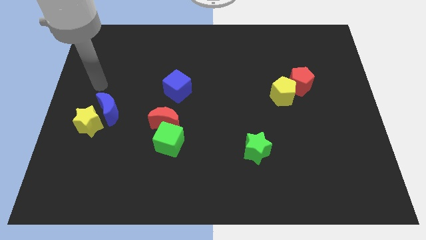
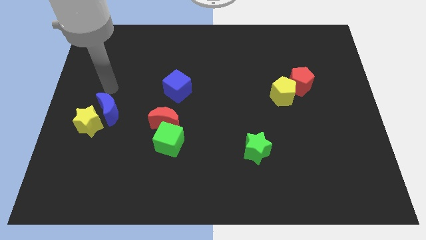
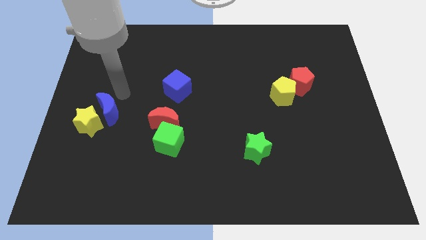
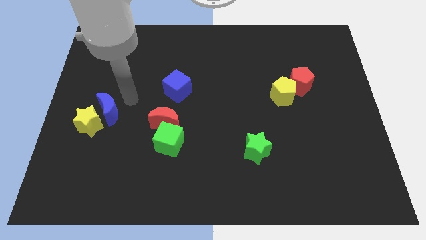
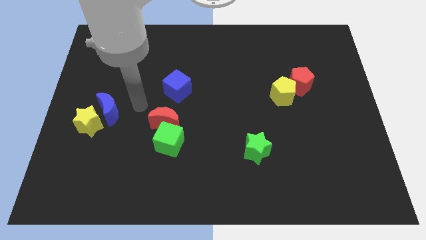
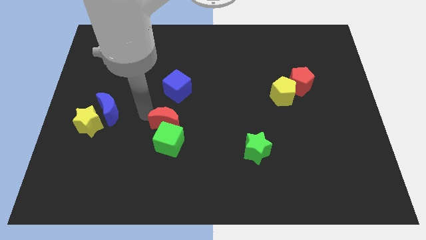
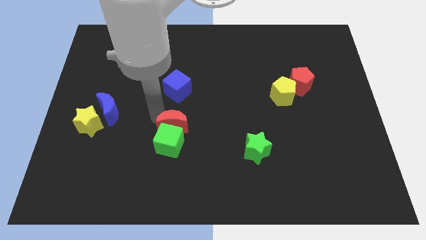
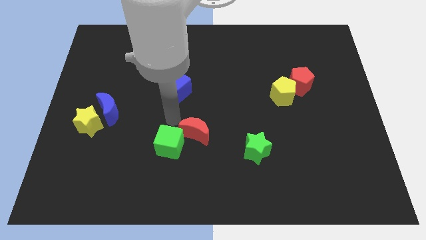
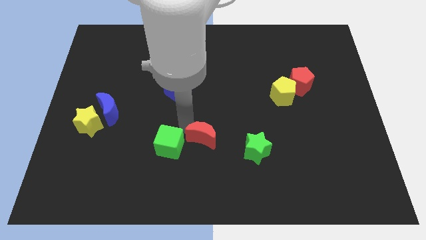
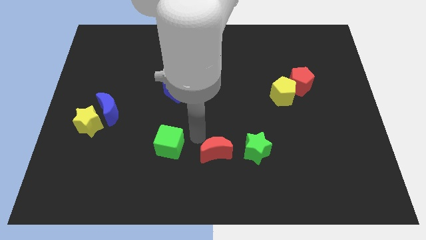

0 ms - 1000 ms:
move the green cube away from the red moon

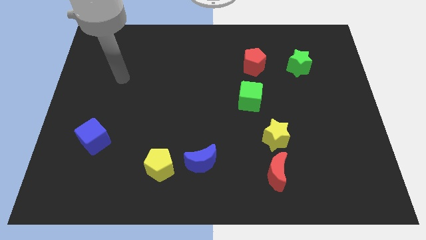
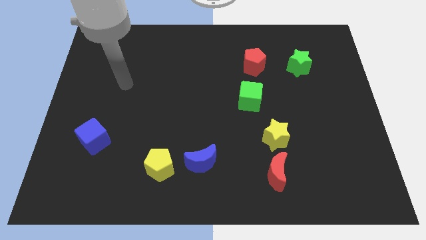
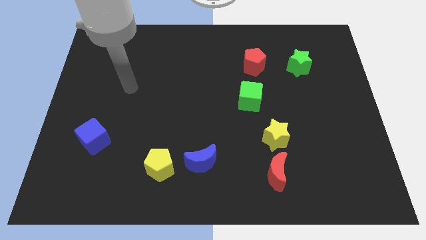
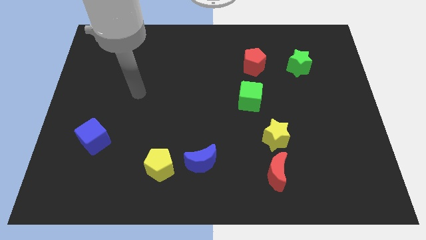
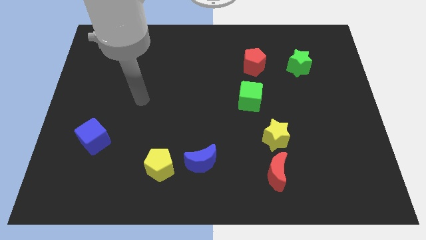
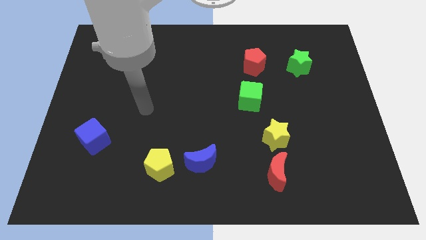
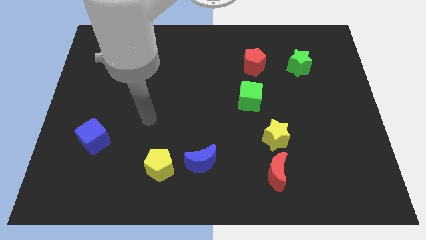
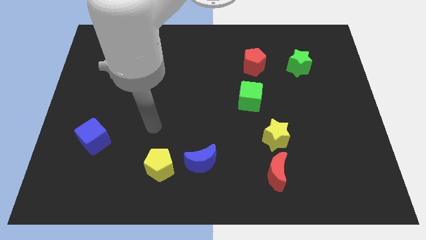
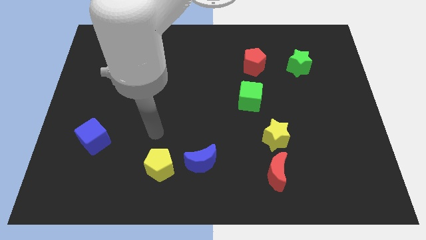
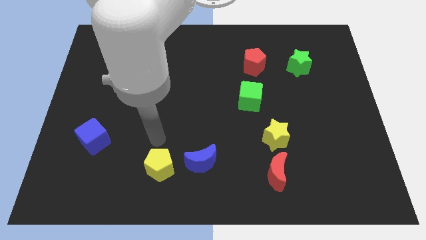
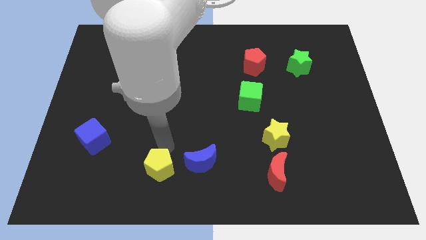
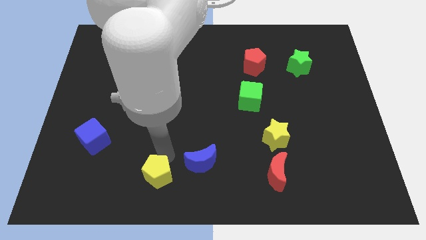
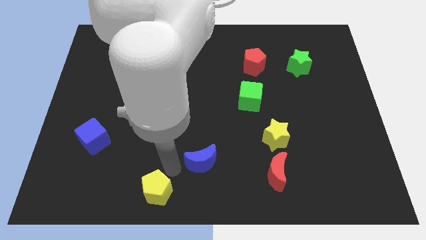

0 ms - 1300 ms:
separate the blue moon from the yellow pentagon

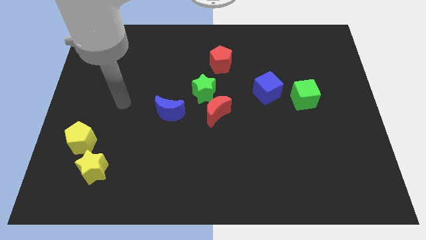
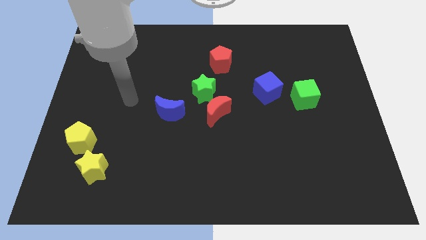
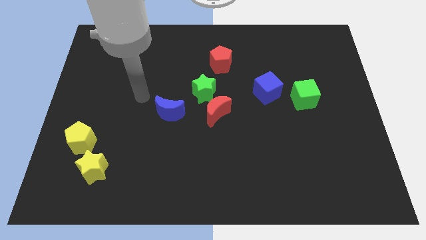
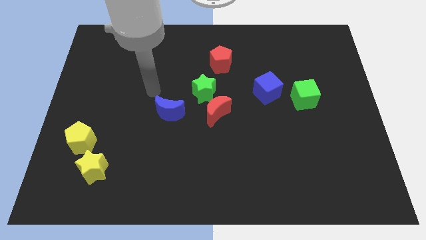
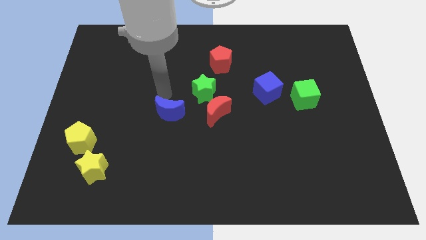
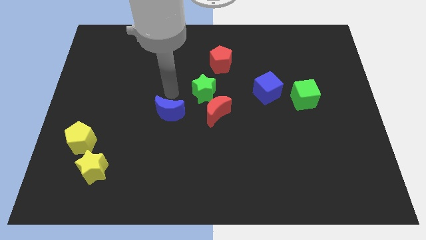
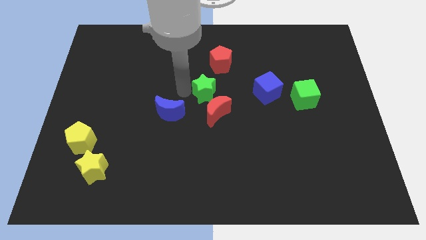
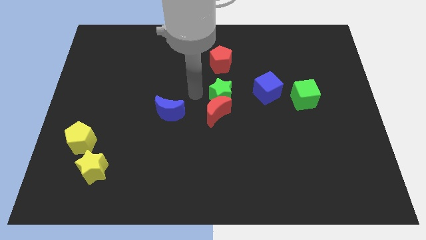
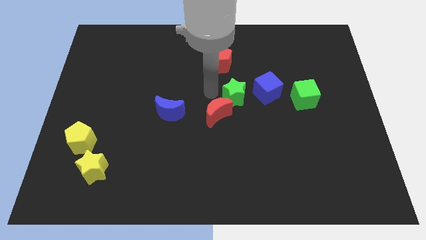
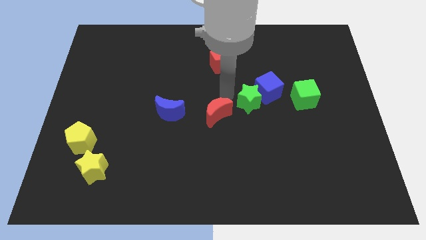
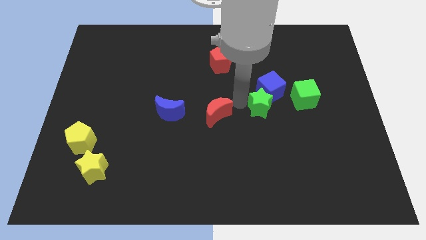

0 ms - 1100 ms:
separate the red moon from the green star

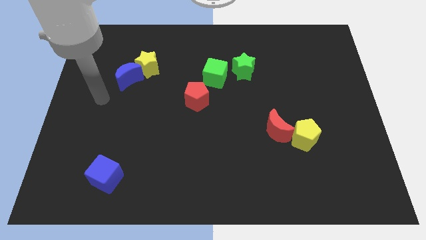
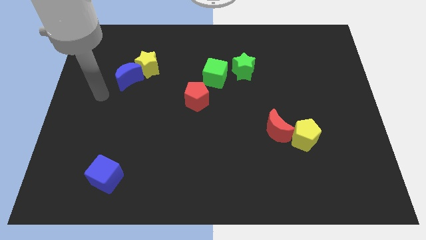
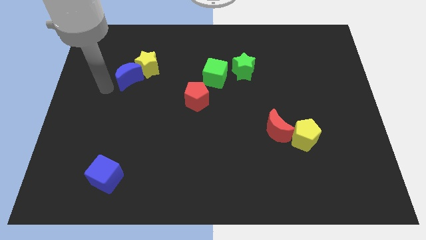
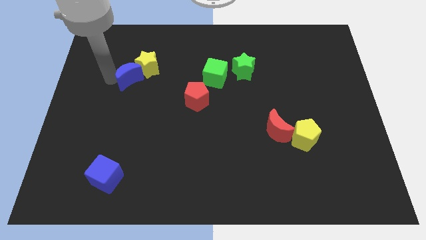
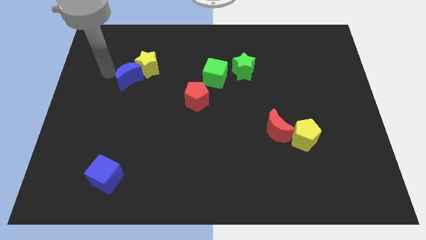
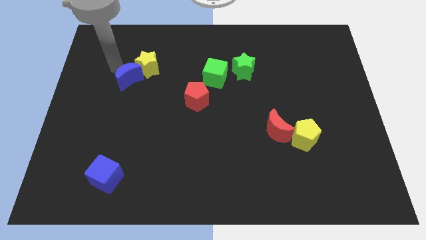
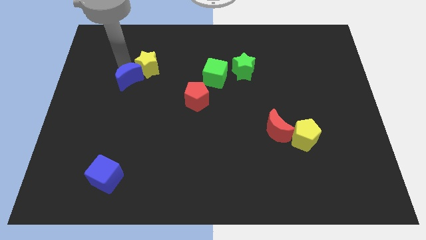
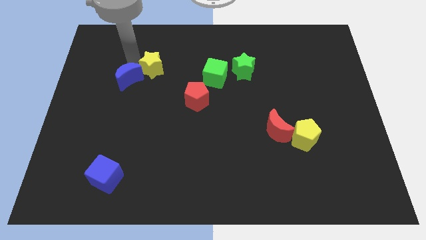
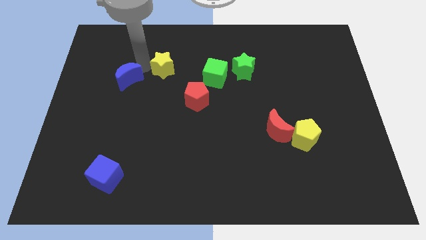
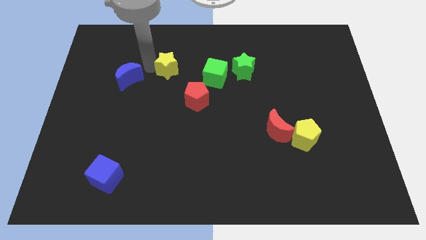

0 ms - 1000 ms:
pull the blue moon apart from the yellow star

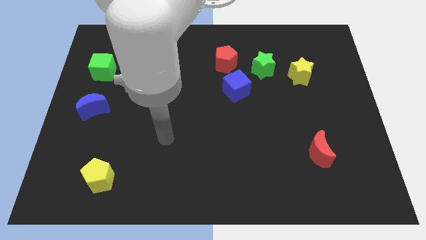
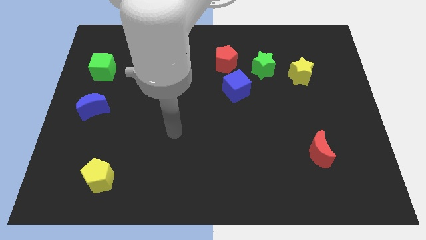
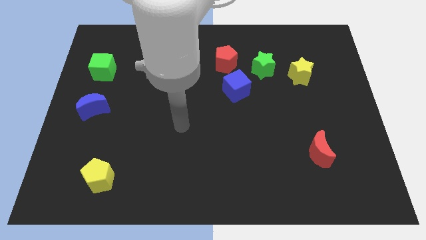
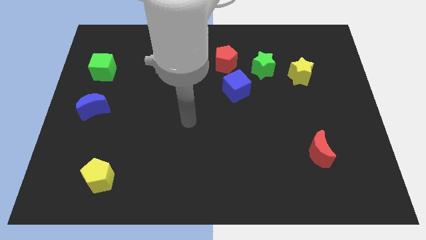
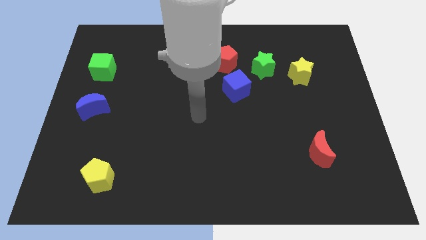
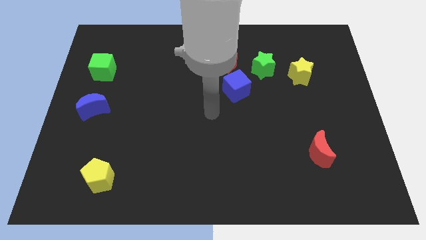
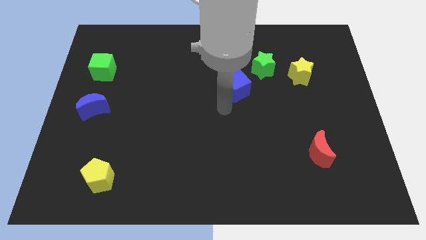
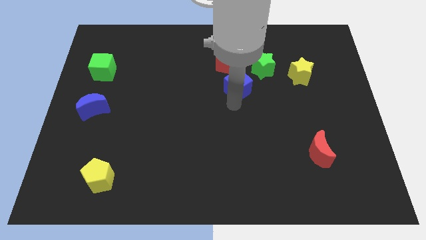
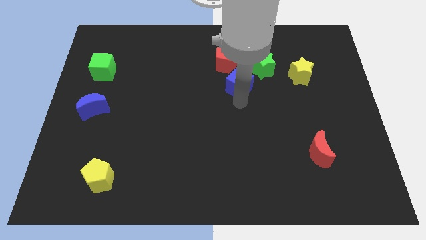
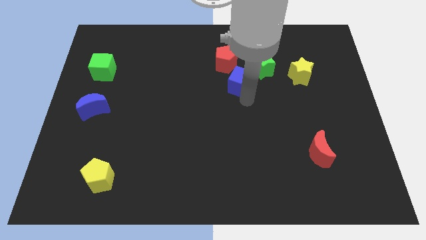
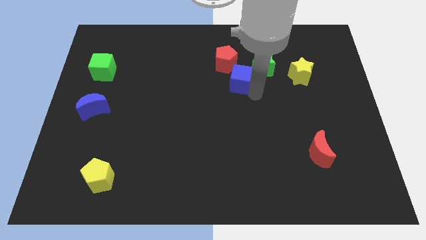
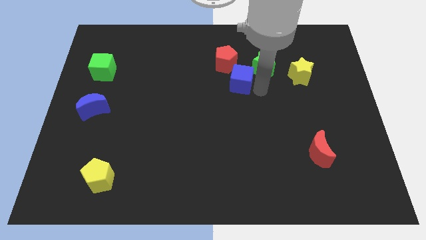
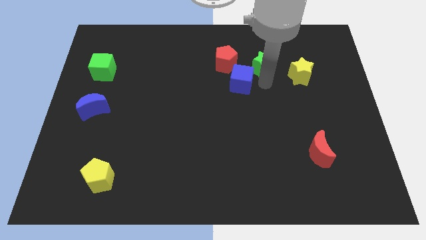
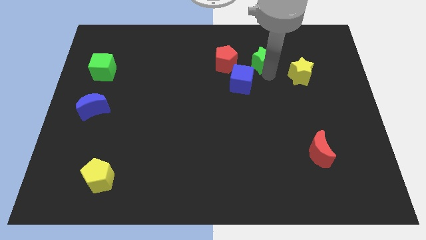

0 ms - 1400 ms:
pull the yellow star apart from the green star

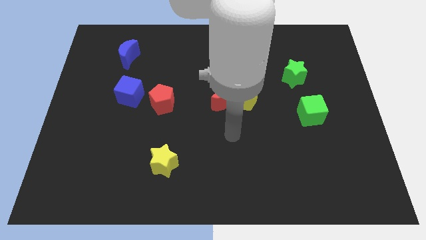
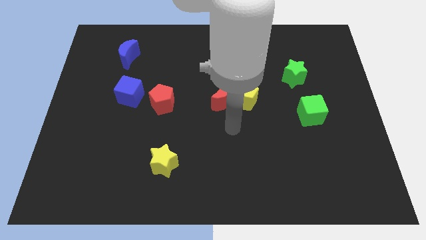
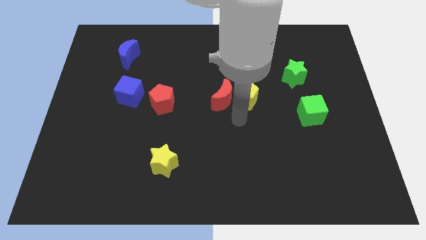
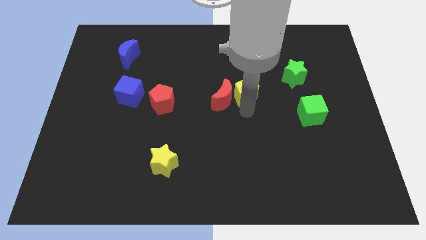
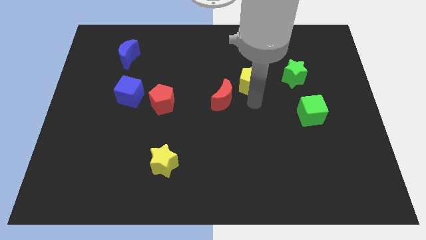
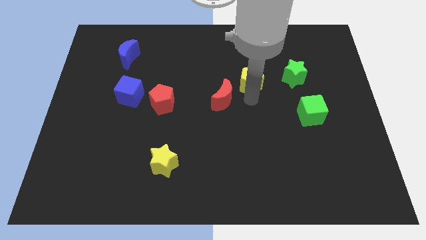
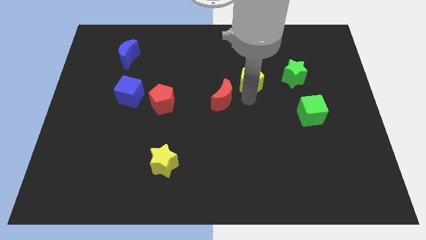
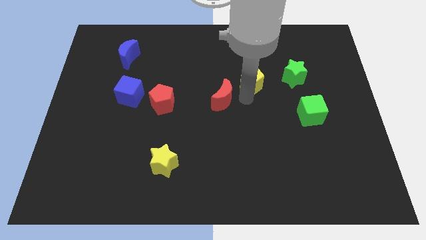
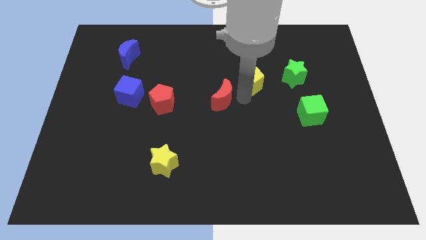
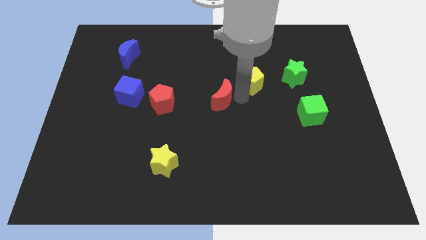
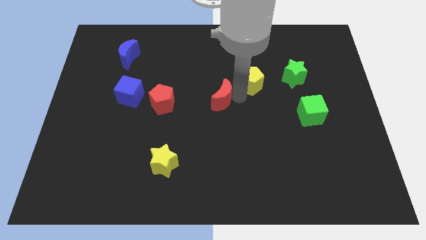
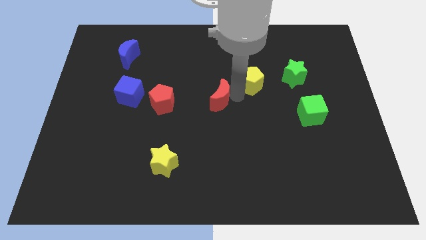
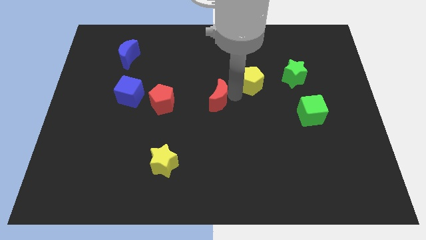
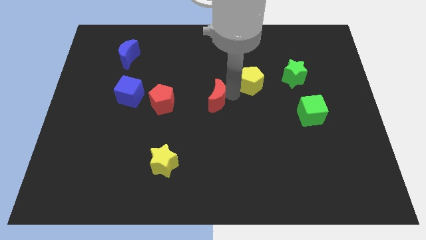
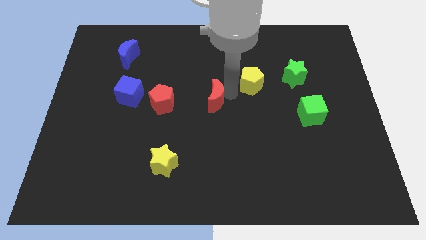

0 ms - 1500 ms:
move the red moon away from the yellow pentagon

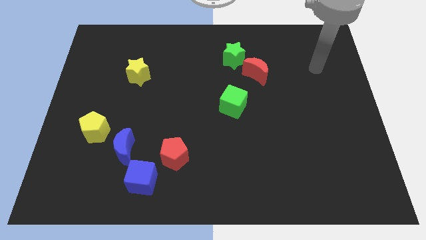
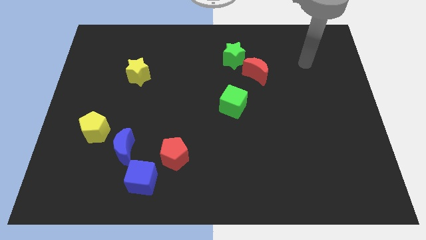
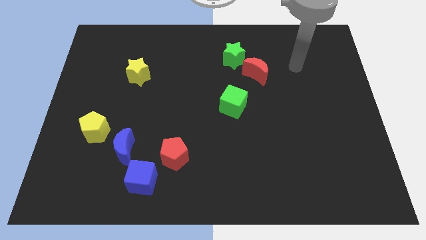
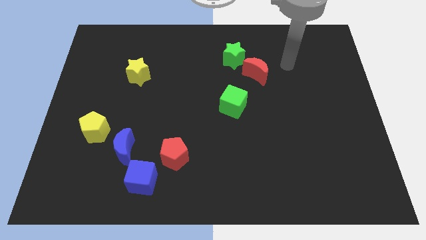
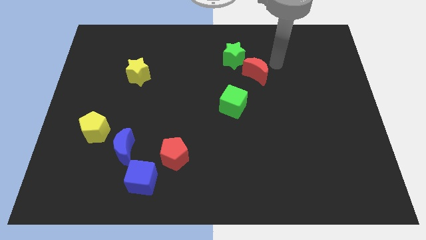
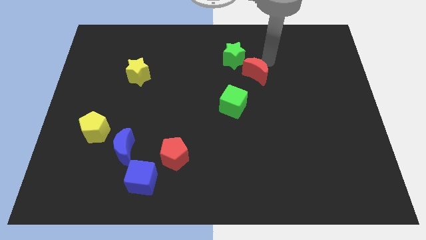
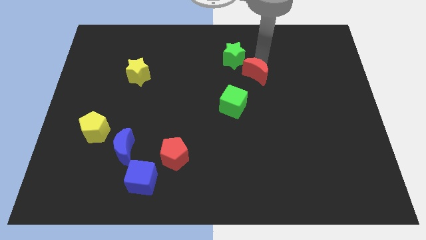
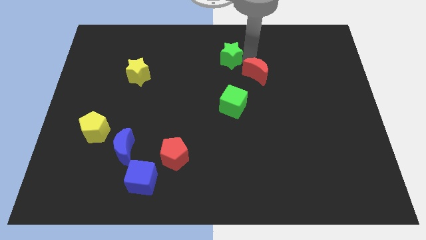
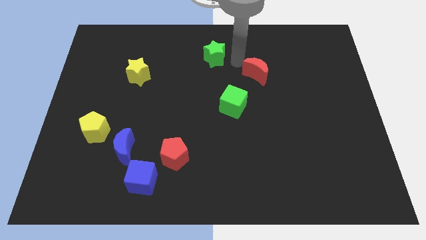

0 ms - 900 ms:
pull the red moon apart from the green star

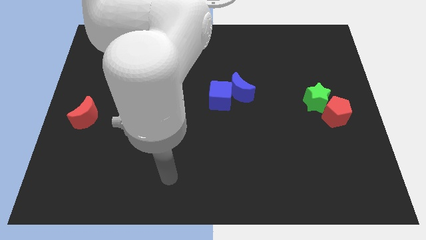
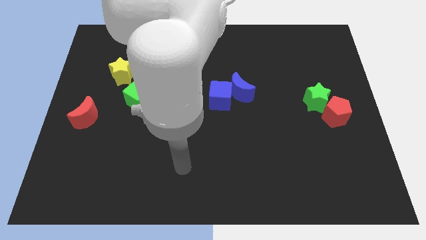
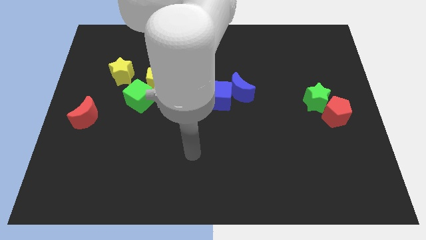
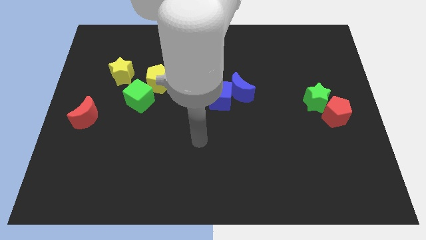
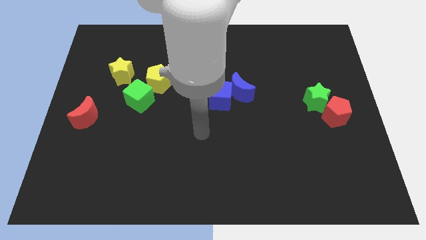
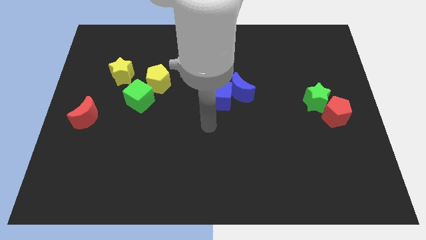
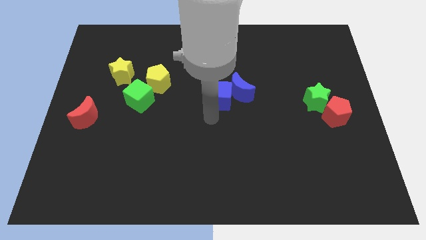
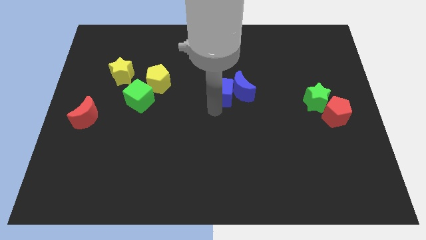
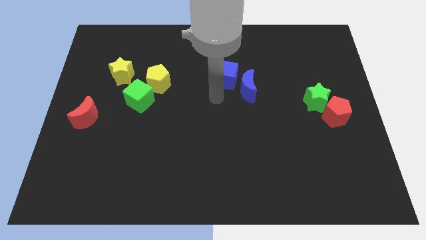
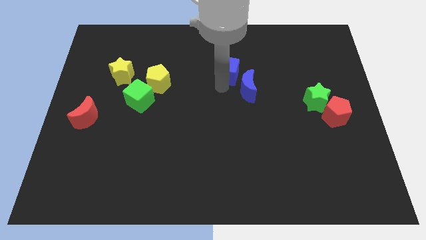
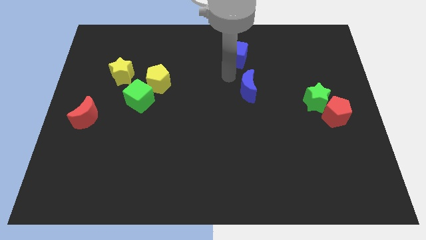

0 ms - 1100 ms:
separate the blue moon from the blue cube
